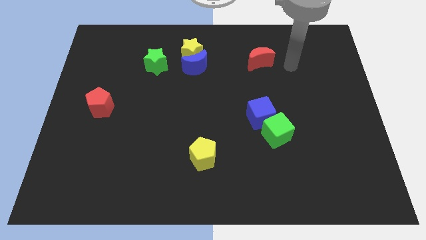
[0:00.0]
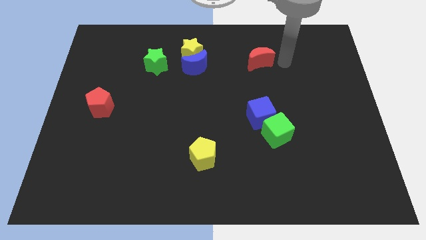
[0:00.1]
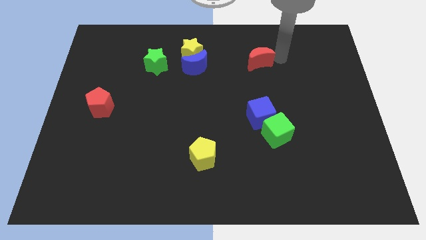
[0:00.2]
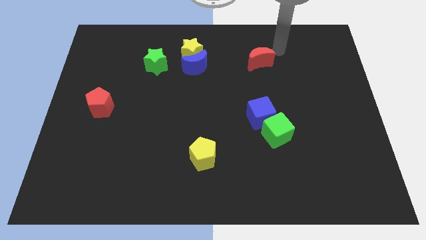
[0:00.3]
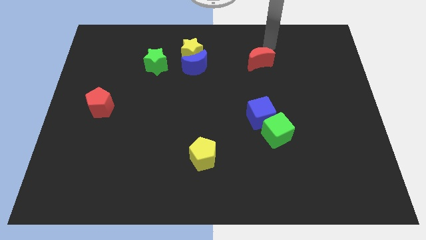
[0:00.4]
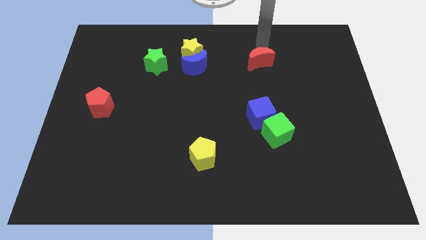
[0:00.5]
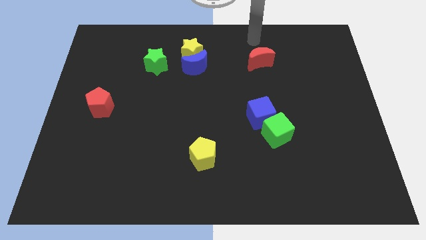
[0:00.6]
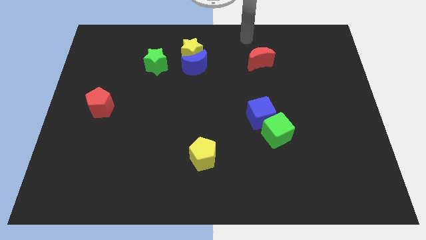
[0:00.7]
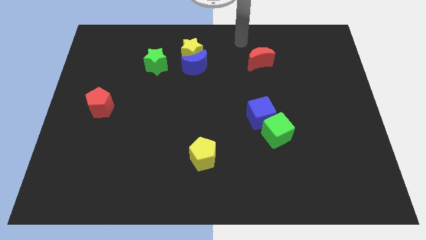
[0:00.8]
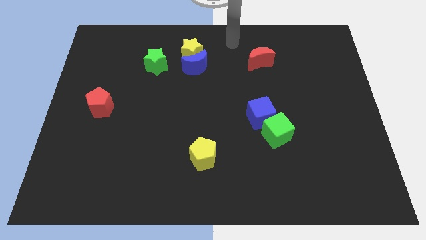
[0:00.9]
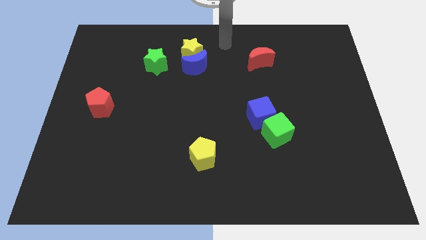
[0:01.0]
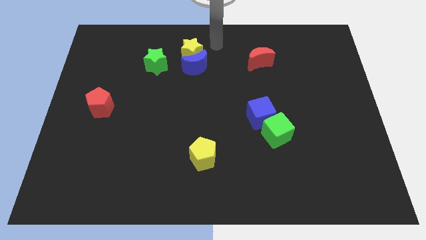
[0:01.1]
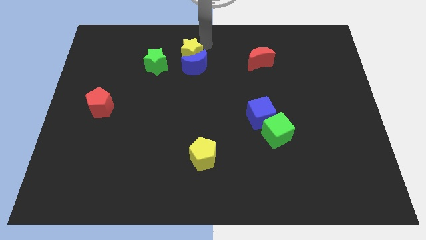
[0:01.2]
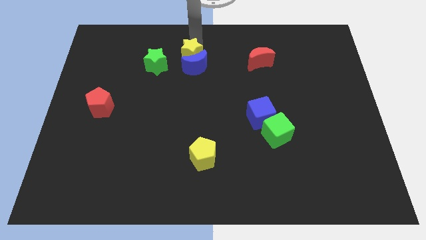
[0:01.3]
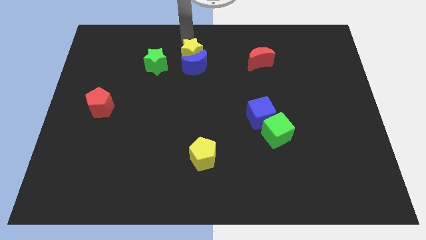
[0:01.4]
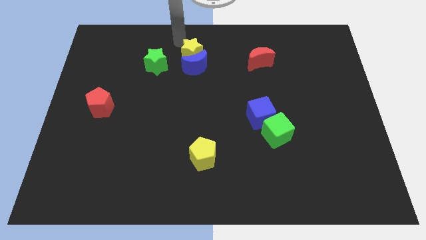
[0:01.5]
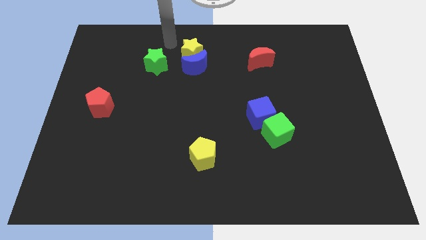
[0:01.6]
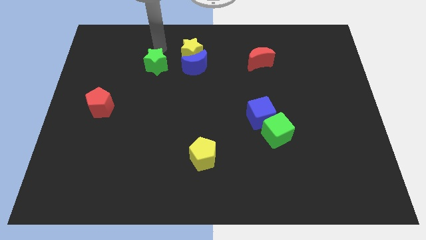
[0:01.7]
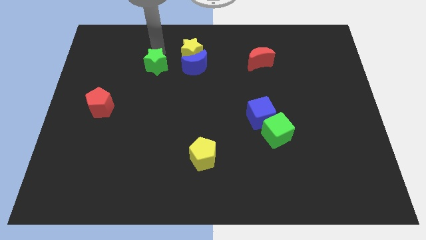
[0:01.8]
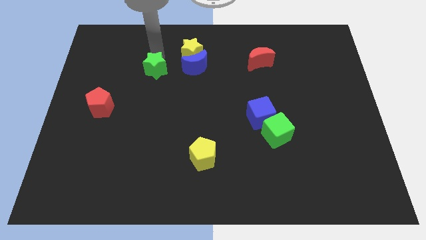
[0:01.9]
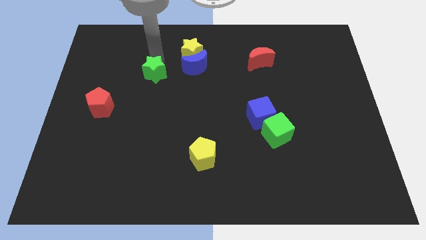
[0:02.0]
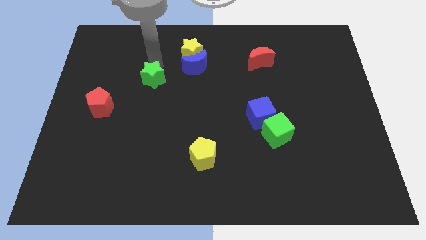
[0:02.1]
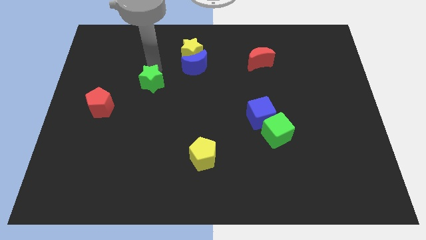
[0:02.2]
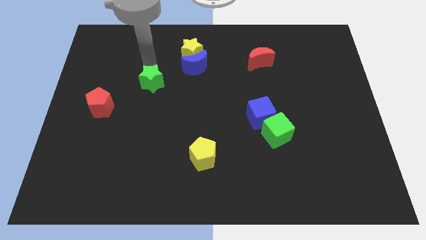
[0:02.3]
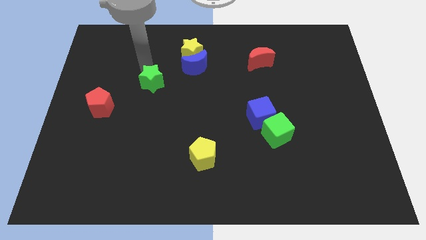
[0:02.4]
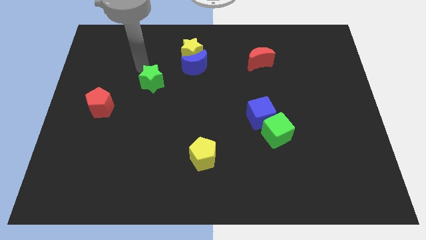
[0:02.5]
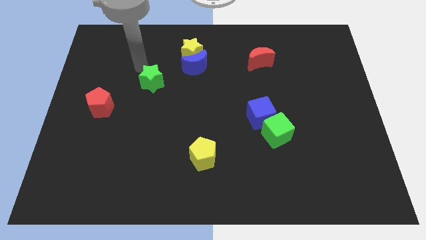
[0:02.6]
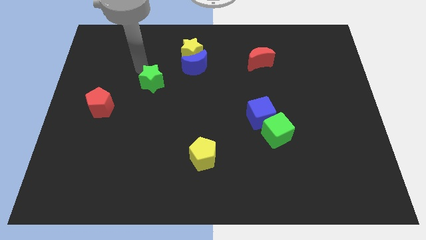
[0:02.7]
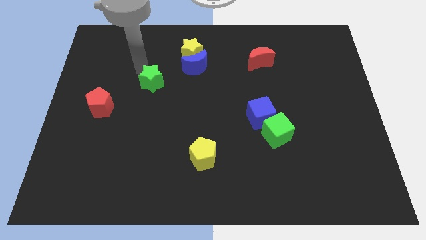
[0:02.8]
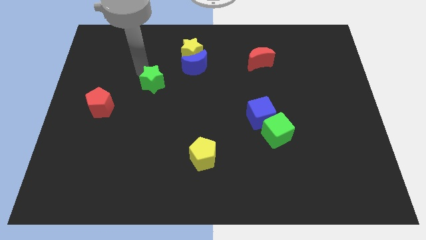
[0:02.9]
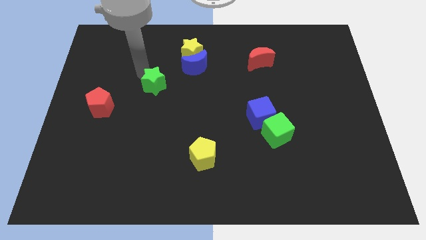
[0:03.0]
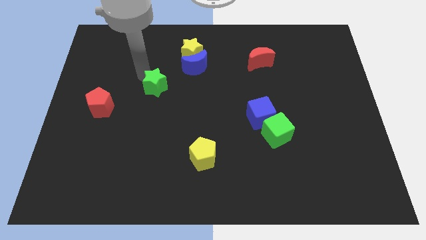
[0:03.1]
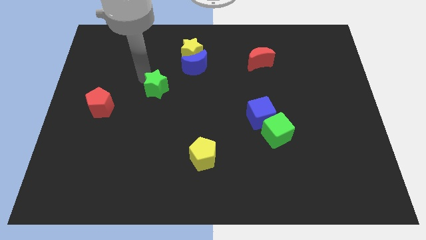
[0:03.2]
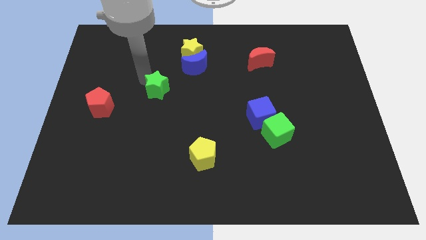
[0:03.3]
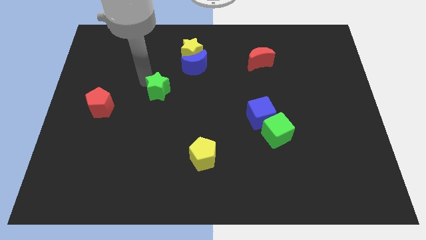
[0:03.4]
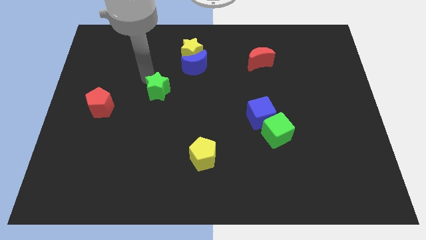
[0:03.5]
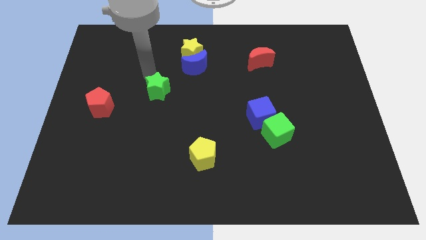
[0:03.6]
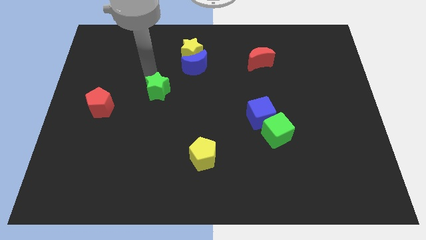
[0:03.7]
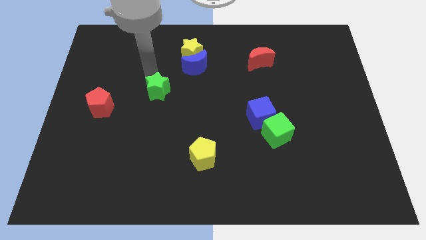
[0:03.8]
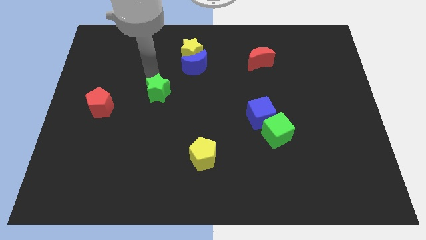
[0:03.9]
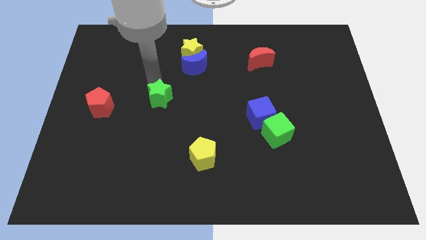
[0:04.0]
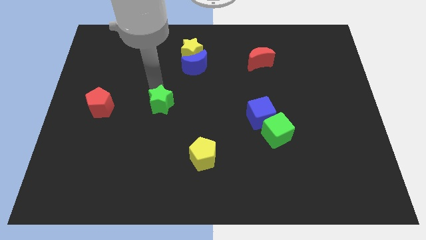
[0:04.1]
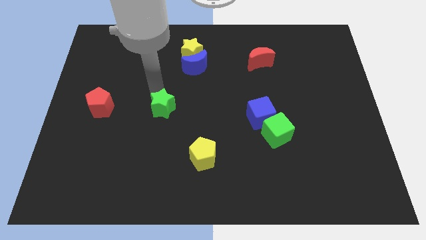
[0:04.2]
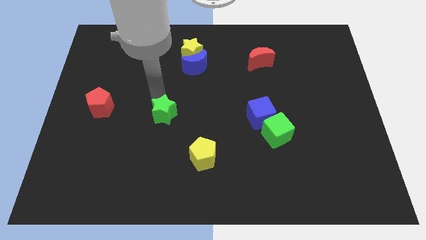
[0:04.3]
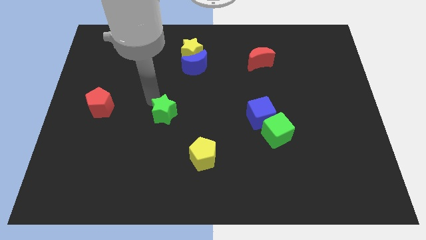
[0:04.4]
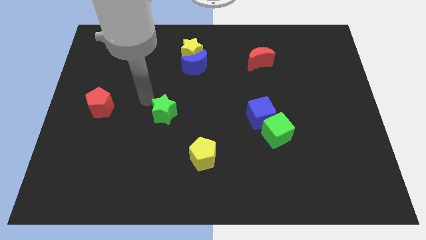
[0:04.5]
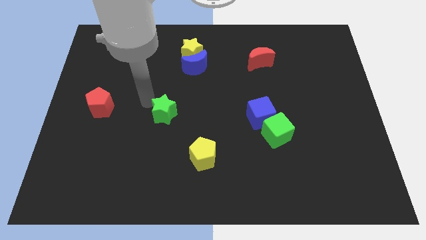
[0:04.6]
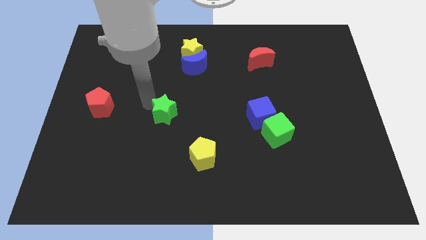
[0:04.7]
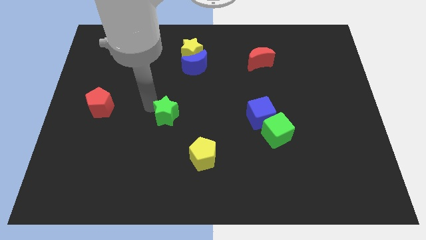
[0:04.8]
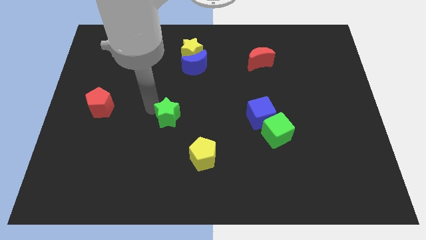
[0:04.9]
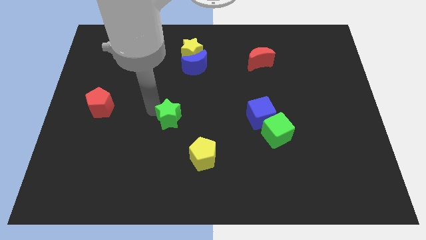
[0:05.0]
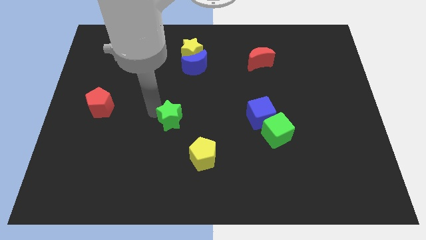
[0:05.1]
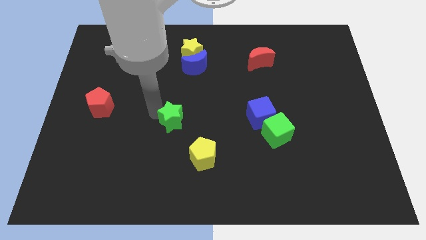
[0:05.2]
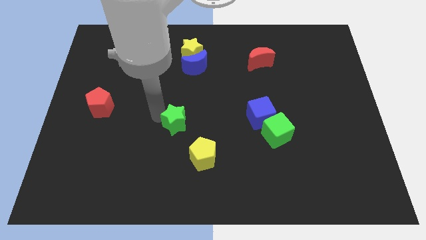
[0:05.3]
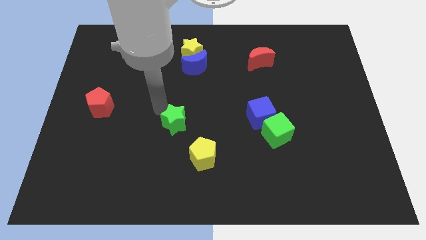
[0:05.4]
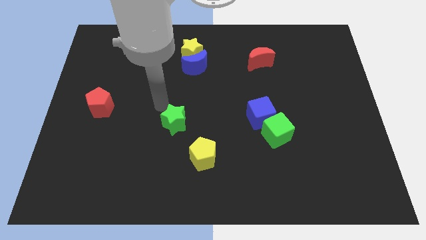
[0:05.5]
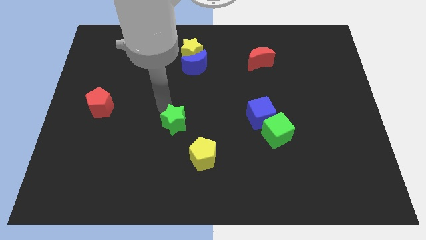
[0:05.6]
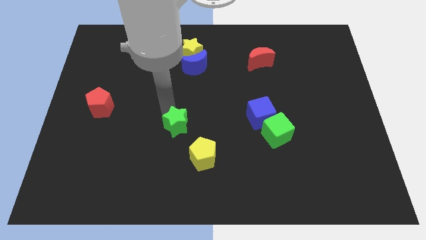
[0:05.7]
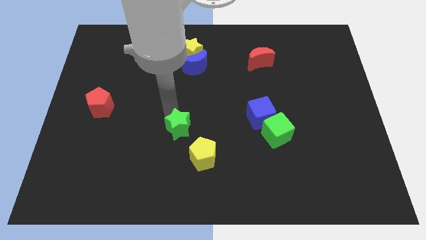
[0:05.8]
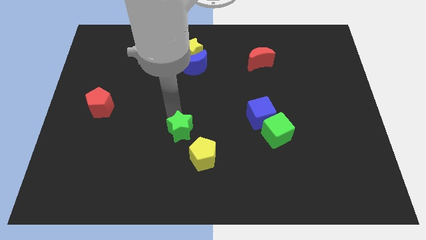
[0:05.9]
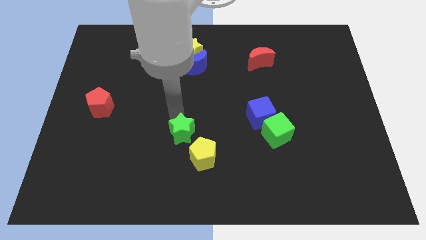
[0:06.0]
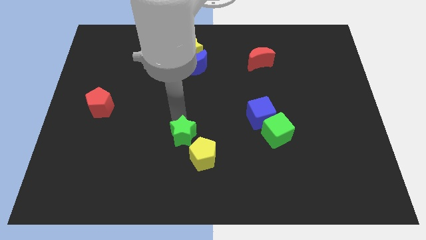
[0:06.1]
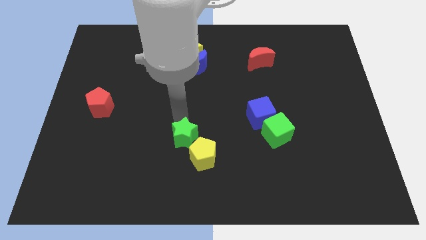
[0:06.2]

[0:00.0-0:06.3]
put the green star towards the yellow pentagon

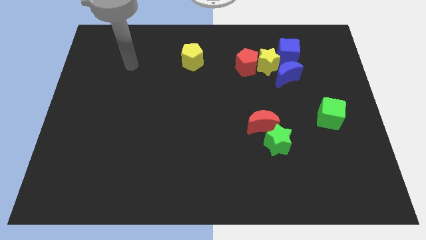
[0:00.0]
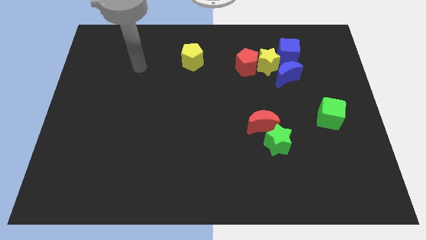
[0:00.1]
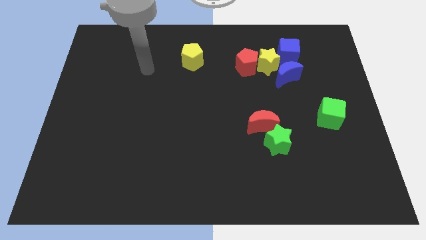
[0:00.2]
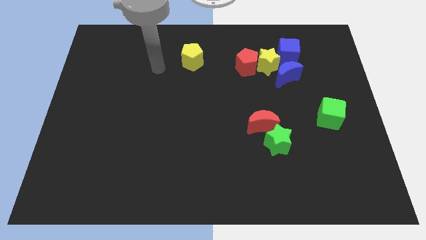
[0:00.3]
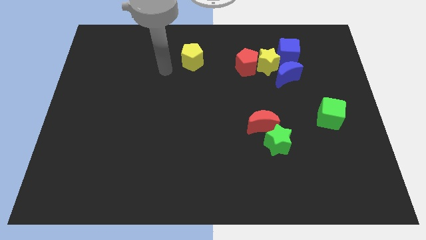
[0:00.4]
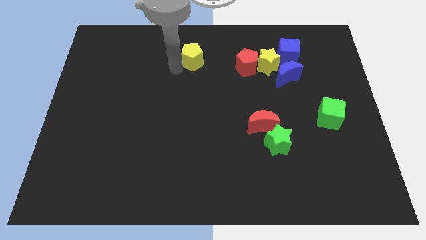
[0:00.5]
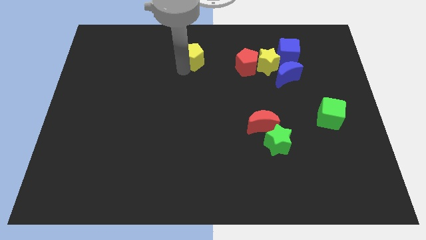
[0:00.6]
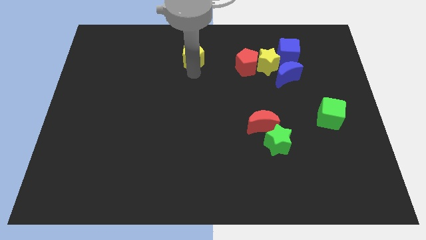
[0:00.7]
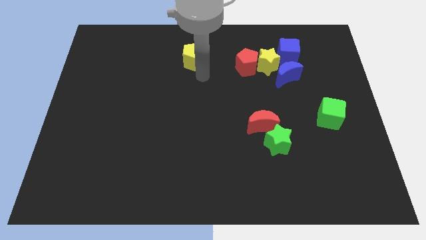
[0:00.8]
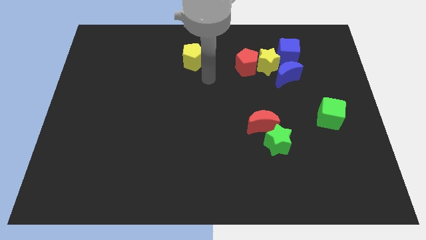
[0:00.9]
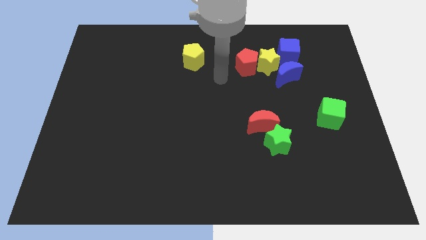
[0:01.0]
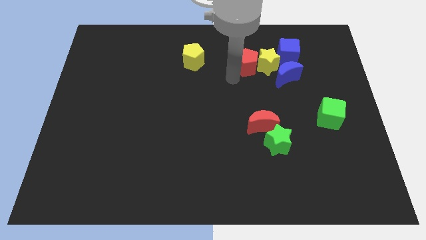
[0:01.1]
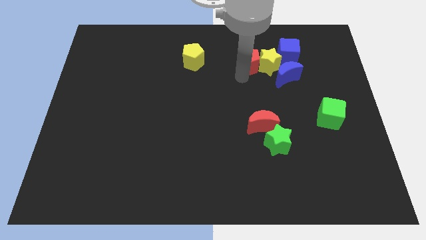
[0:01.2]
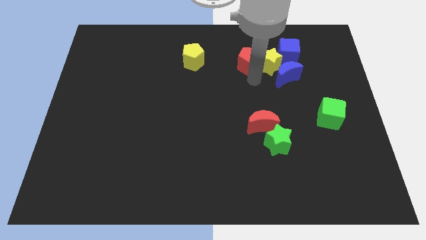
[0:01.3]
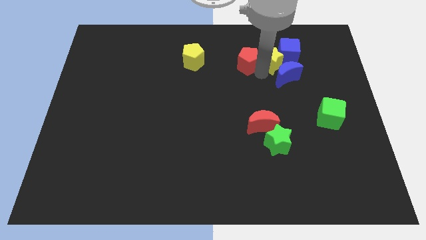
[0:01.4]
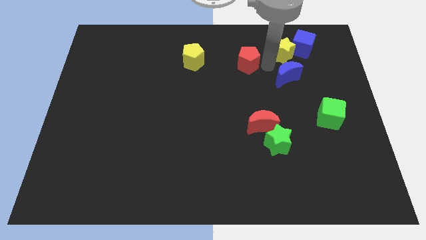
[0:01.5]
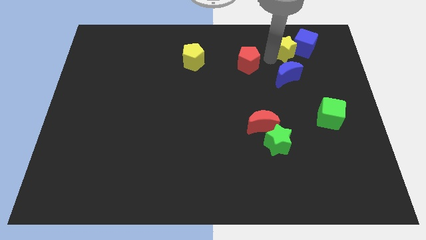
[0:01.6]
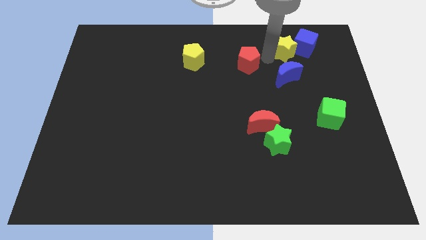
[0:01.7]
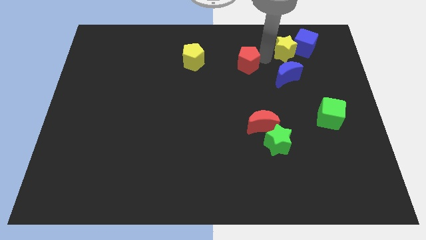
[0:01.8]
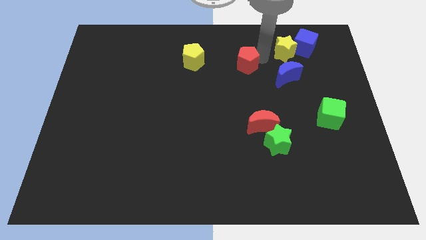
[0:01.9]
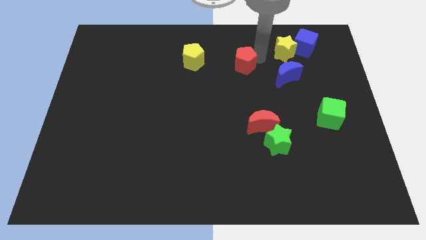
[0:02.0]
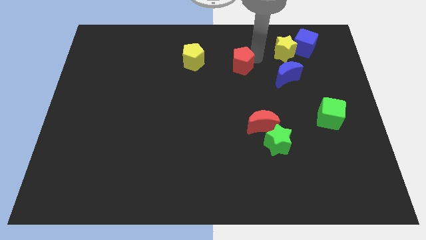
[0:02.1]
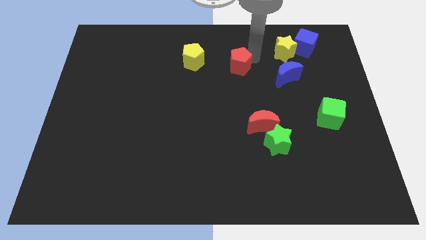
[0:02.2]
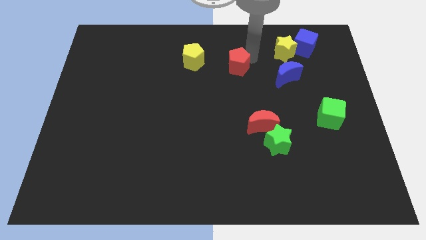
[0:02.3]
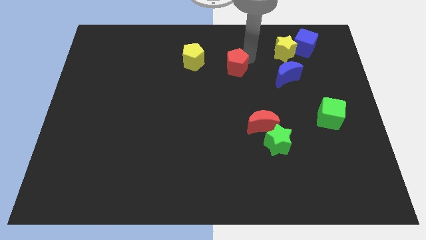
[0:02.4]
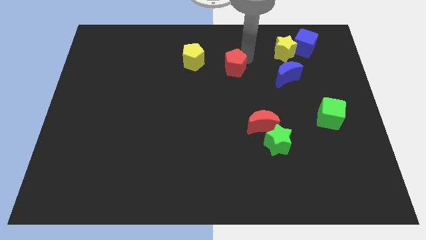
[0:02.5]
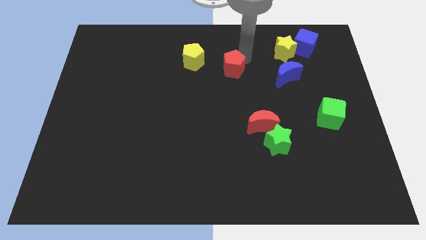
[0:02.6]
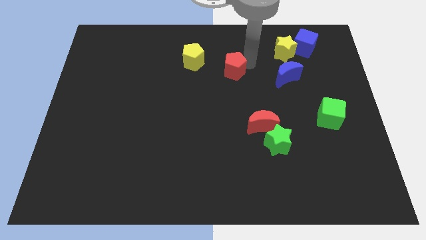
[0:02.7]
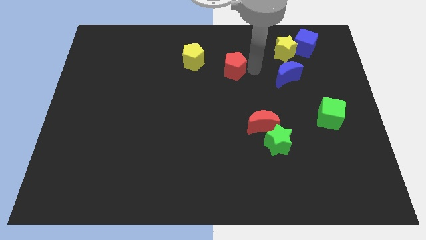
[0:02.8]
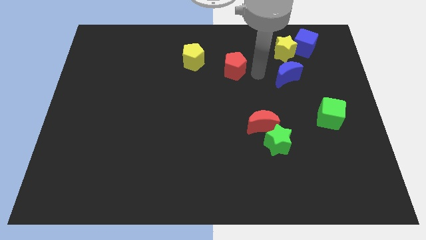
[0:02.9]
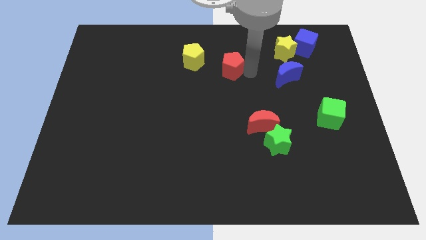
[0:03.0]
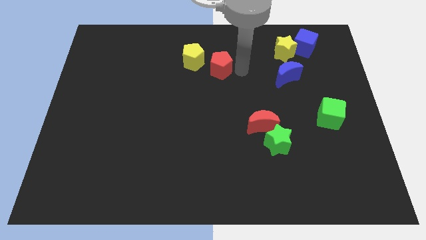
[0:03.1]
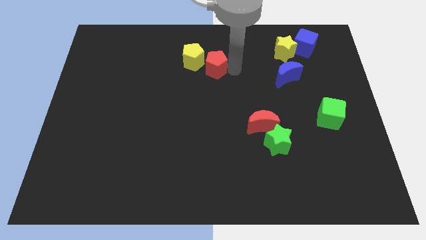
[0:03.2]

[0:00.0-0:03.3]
move the red pentagon to the yellow pentagon
